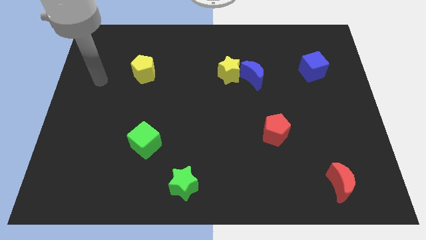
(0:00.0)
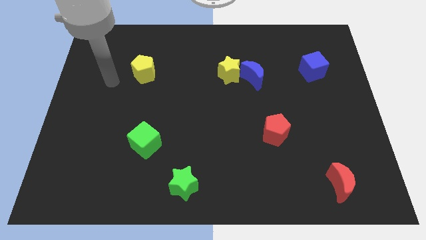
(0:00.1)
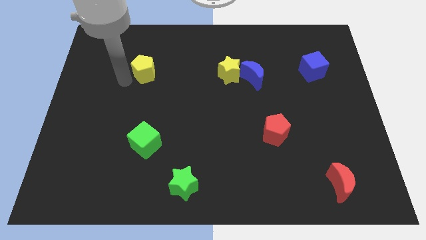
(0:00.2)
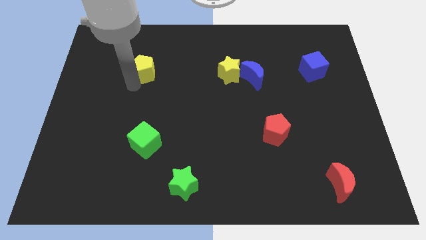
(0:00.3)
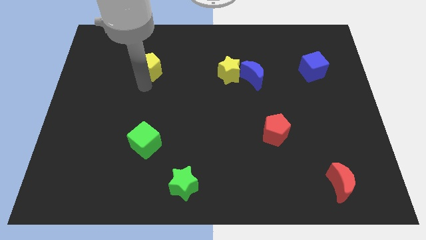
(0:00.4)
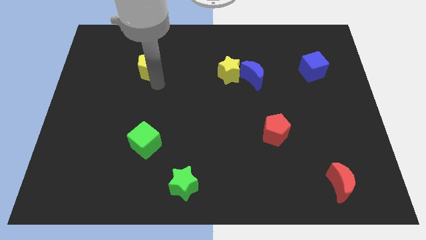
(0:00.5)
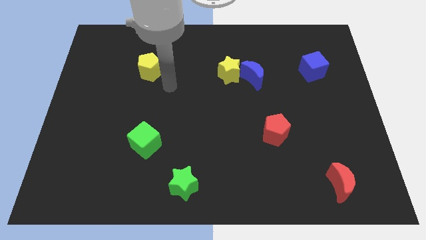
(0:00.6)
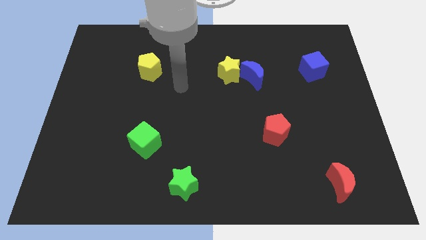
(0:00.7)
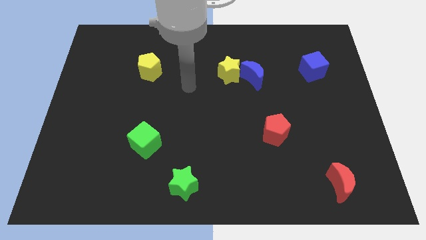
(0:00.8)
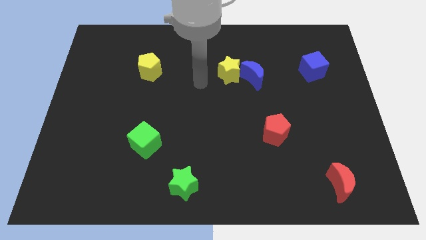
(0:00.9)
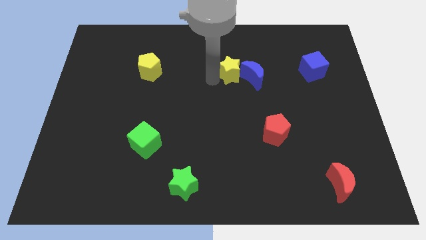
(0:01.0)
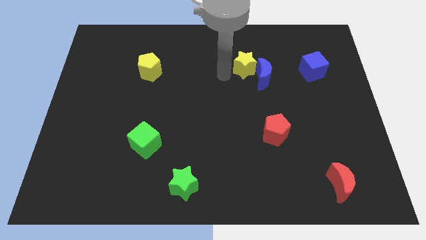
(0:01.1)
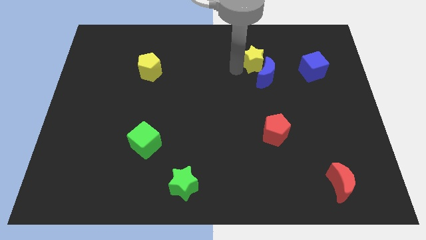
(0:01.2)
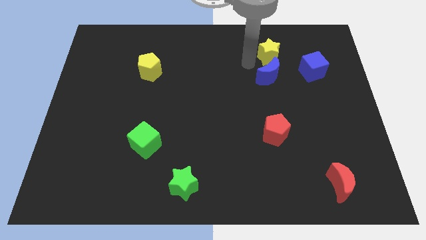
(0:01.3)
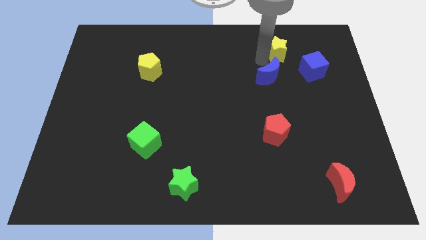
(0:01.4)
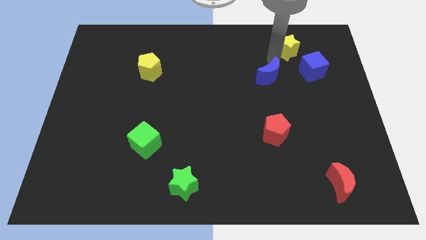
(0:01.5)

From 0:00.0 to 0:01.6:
separate the blue moon from the yellow star

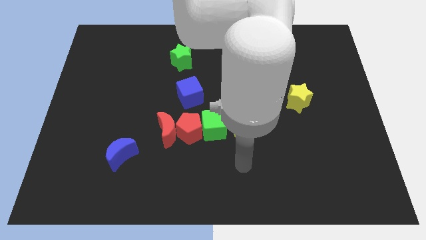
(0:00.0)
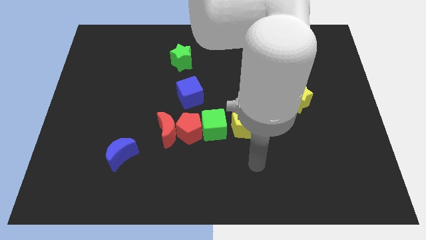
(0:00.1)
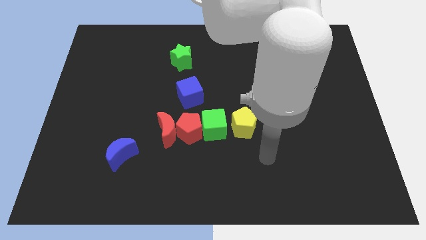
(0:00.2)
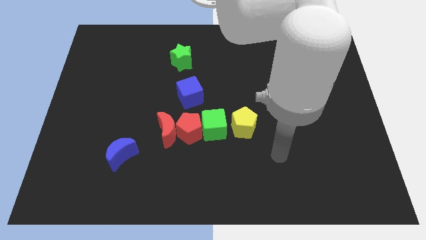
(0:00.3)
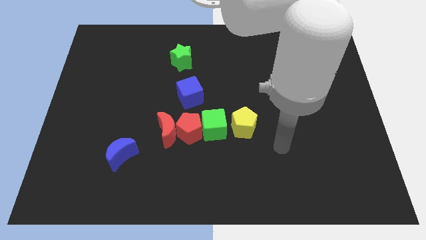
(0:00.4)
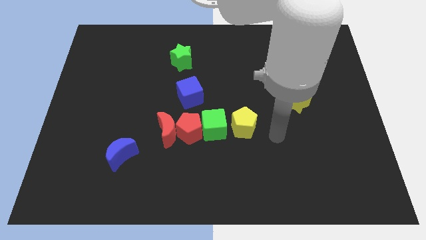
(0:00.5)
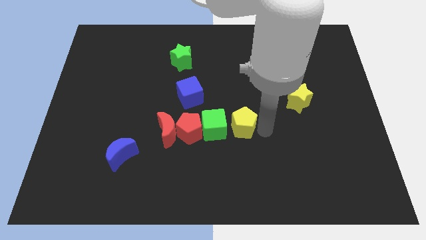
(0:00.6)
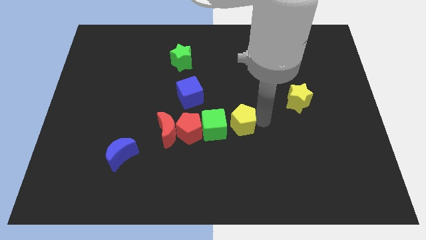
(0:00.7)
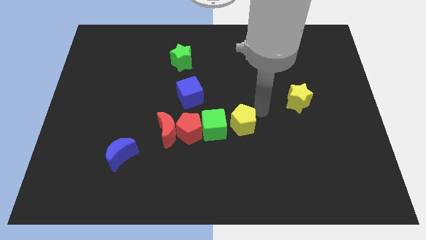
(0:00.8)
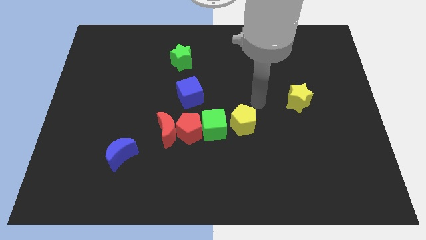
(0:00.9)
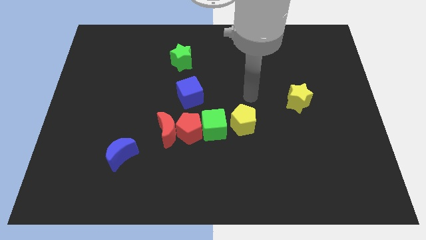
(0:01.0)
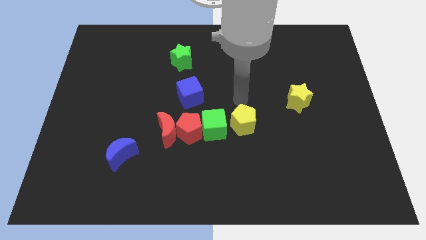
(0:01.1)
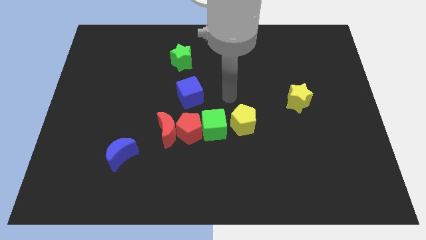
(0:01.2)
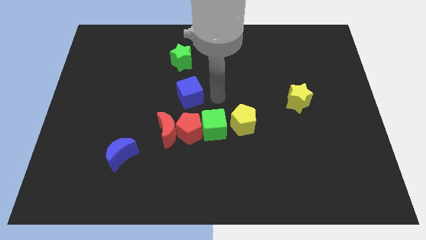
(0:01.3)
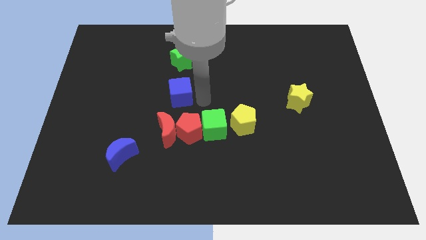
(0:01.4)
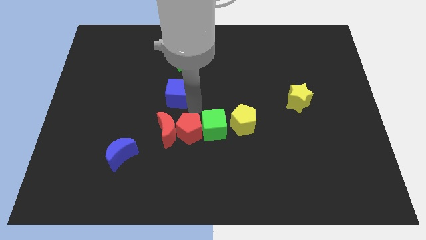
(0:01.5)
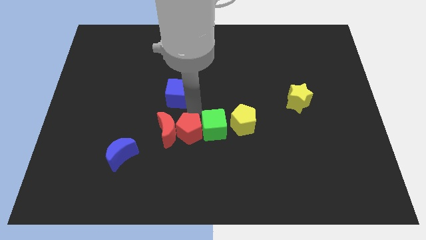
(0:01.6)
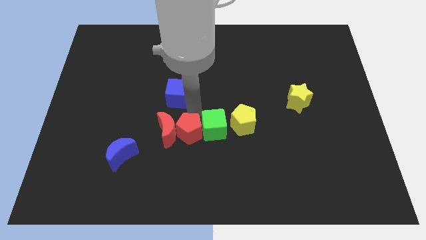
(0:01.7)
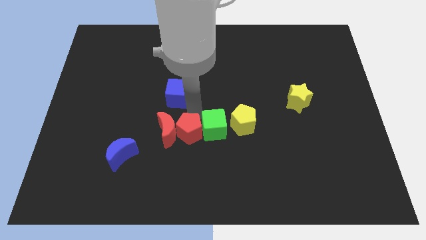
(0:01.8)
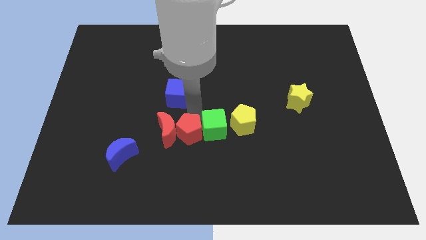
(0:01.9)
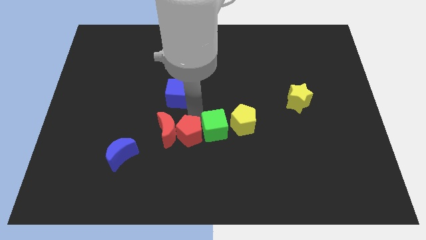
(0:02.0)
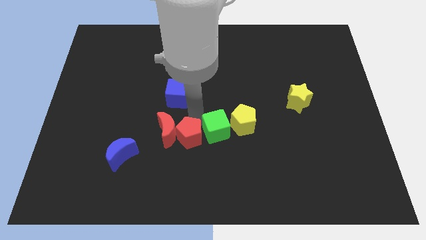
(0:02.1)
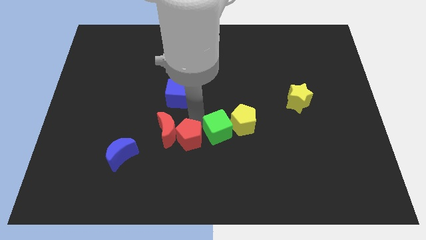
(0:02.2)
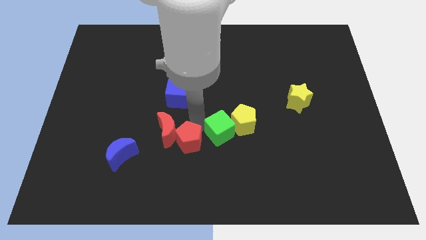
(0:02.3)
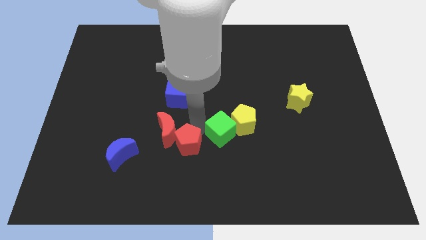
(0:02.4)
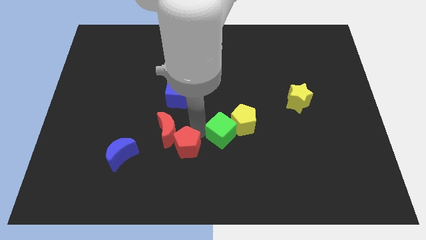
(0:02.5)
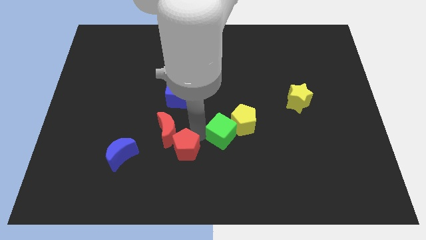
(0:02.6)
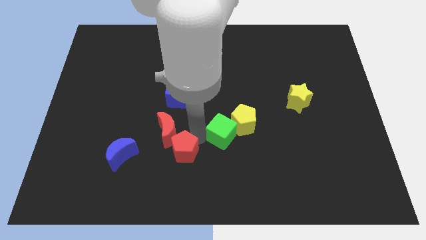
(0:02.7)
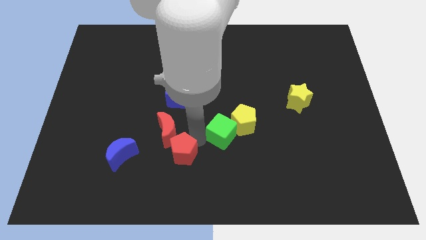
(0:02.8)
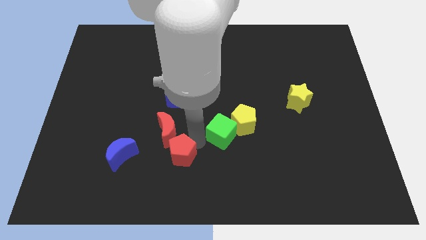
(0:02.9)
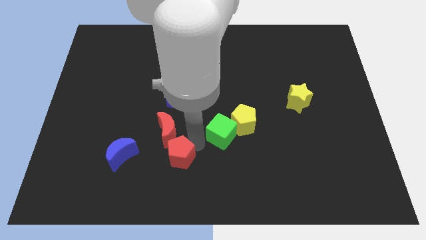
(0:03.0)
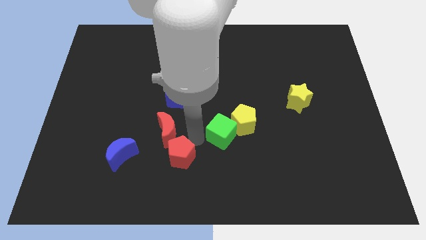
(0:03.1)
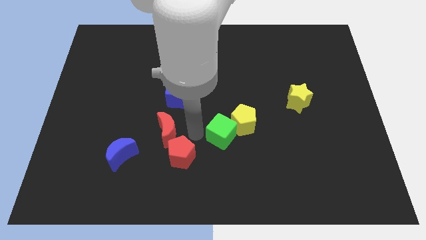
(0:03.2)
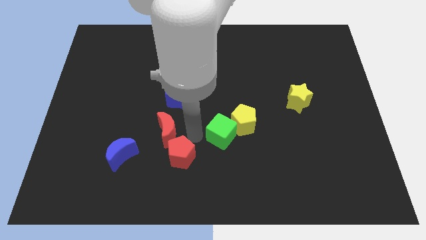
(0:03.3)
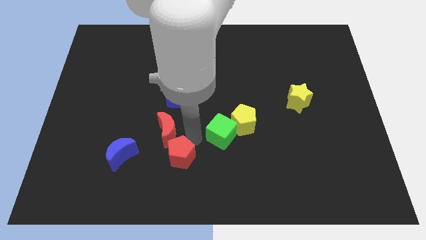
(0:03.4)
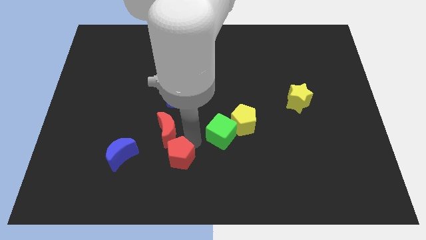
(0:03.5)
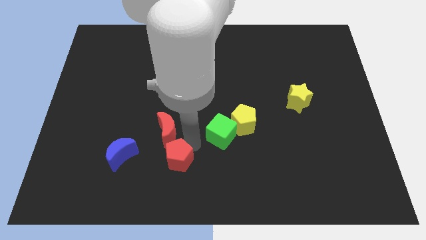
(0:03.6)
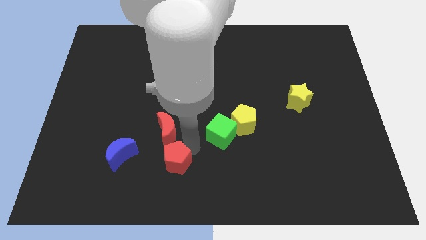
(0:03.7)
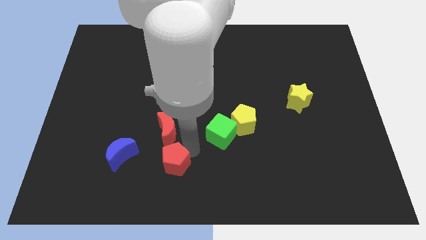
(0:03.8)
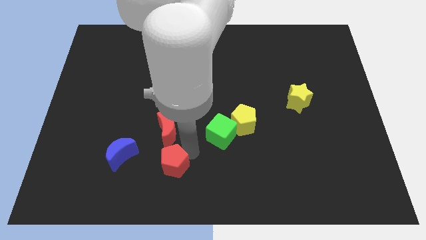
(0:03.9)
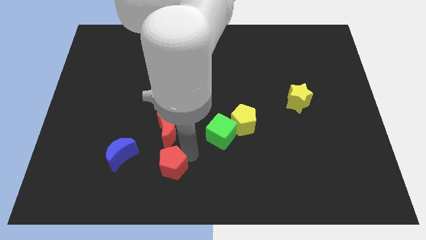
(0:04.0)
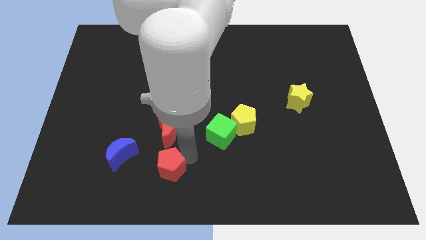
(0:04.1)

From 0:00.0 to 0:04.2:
pull the red pentagon apart from the red moon and green cube

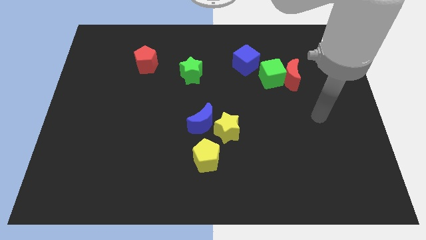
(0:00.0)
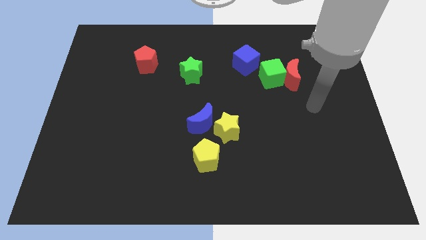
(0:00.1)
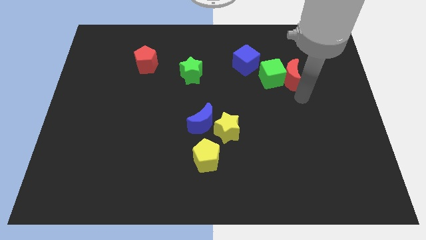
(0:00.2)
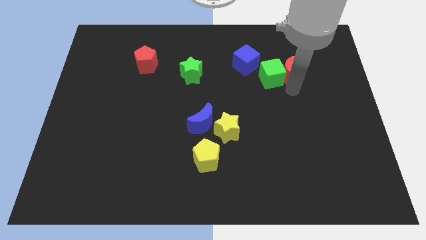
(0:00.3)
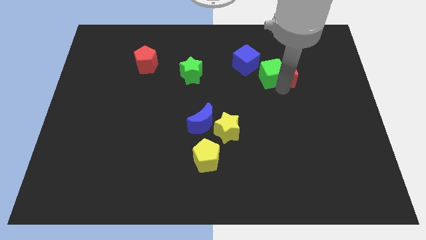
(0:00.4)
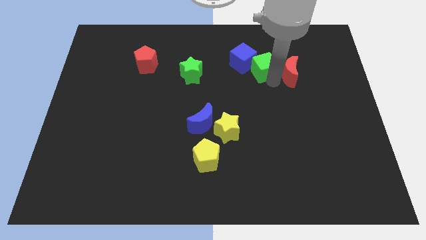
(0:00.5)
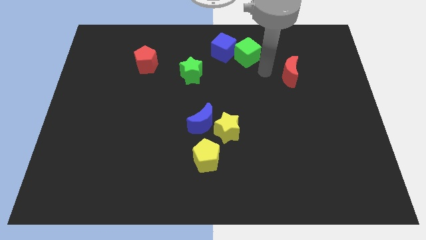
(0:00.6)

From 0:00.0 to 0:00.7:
separate the red moon from the green cube

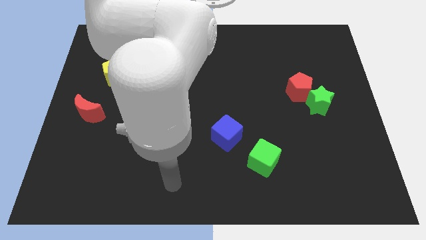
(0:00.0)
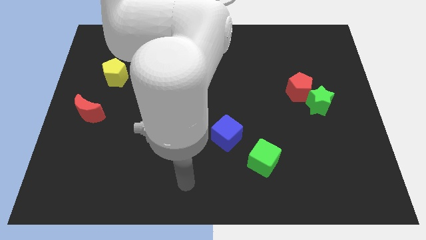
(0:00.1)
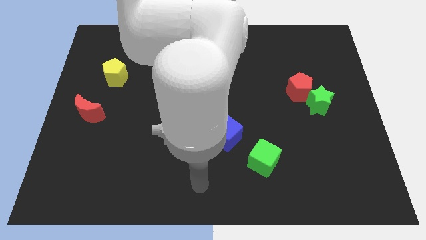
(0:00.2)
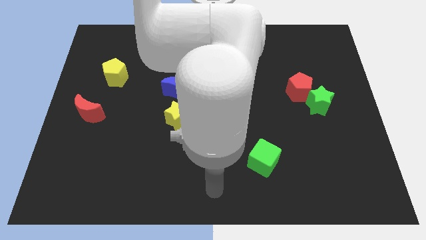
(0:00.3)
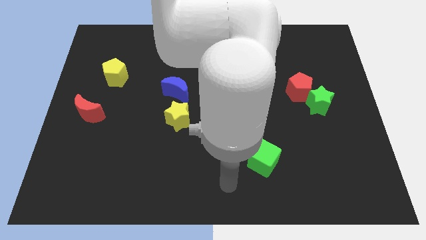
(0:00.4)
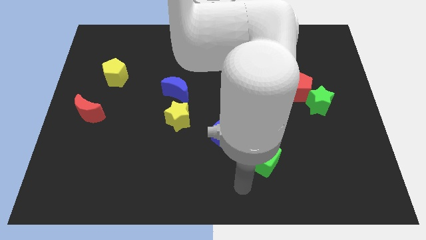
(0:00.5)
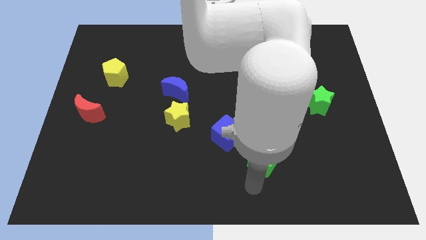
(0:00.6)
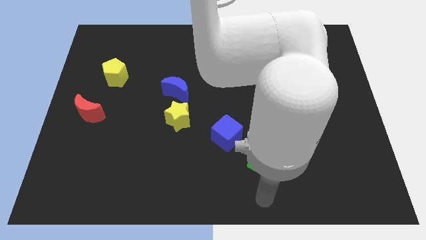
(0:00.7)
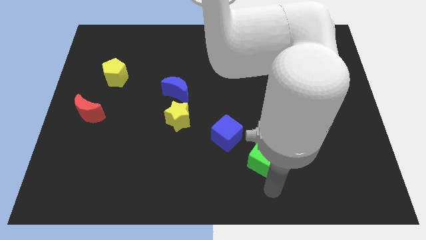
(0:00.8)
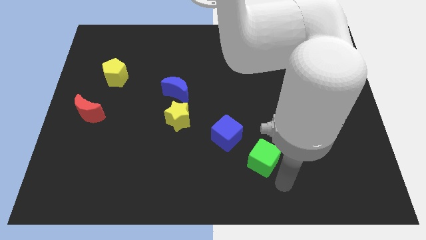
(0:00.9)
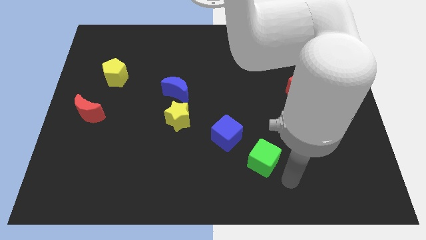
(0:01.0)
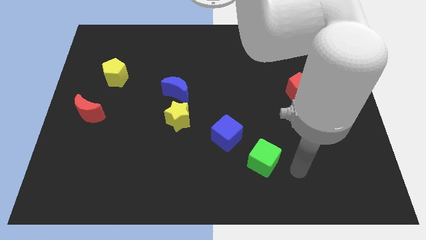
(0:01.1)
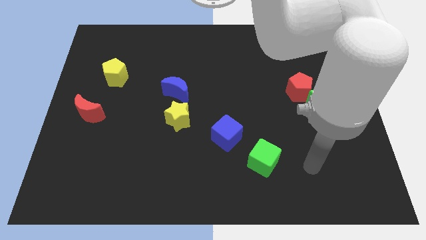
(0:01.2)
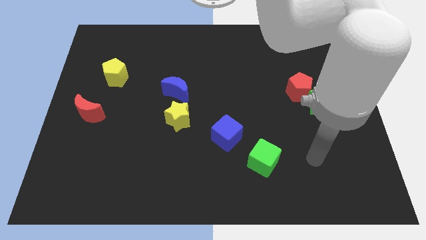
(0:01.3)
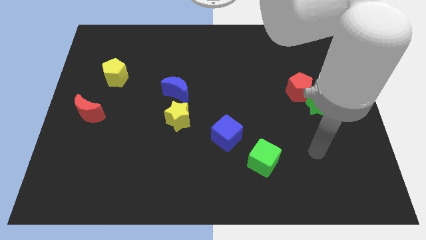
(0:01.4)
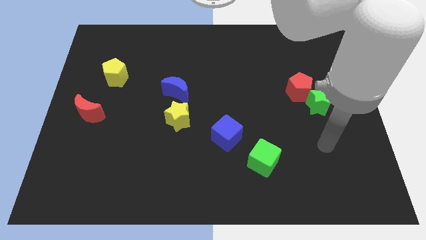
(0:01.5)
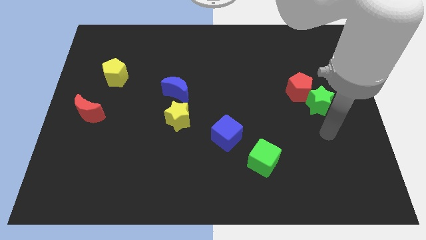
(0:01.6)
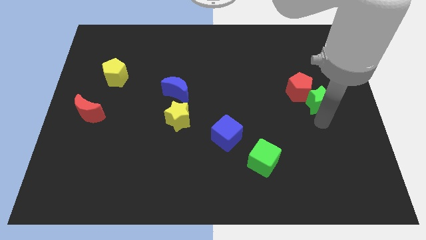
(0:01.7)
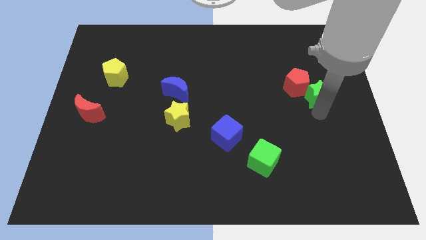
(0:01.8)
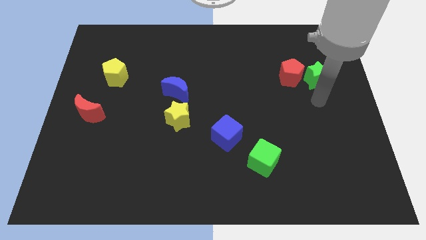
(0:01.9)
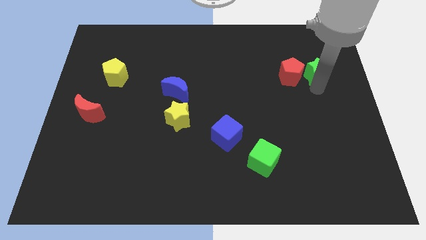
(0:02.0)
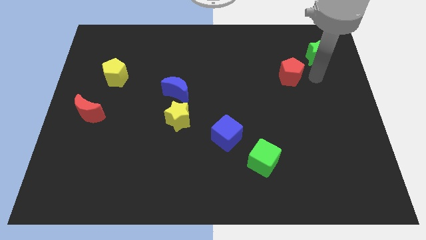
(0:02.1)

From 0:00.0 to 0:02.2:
separate the red pentagon from the green star

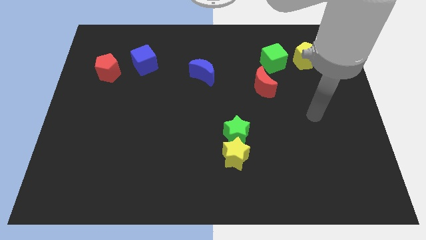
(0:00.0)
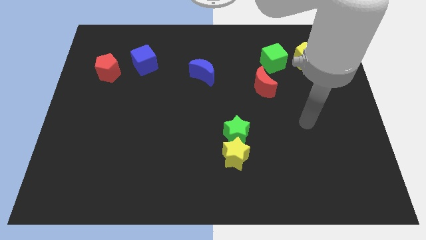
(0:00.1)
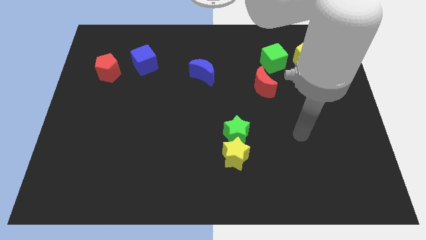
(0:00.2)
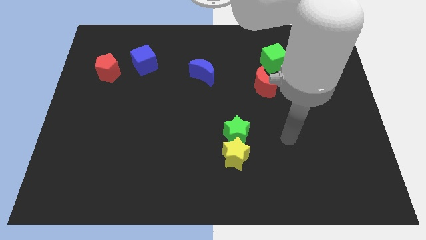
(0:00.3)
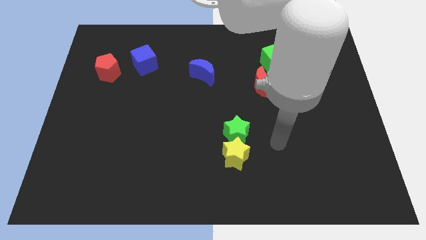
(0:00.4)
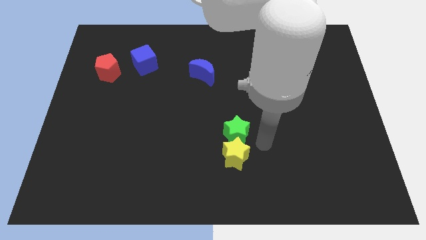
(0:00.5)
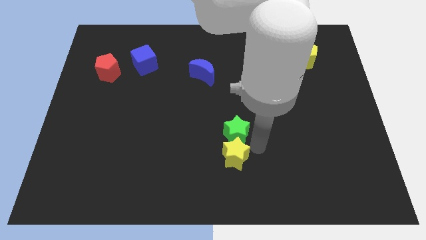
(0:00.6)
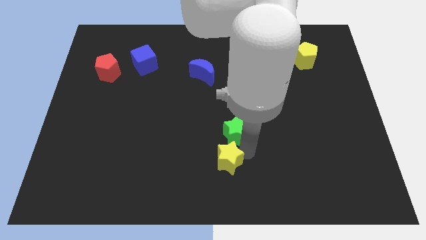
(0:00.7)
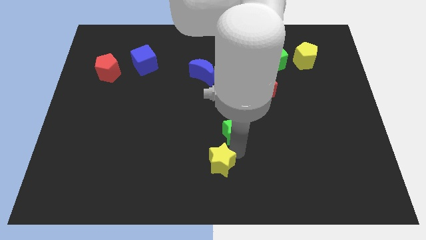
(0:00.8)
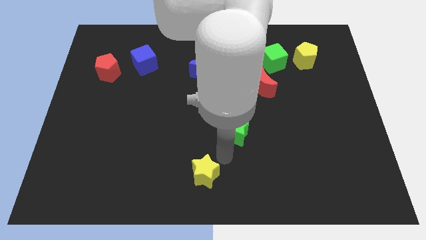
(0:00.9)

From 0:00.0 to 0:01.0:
move the green star away from the yellow star
